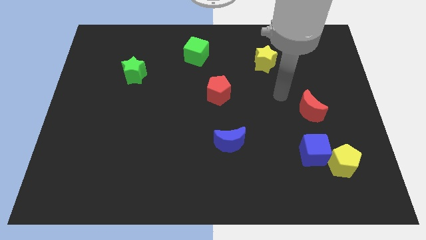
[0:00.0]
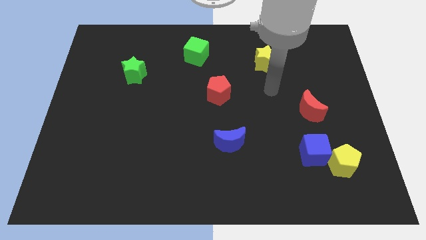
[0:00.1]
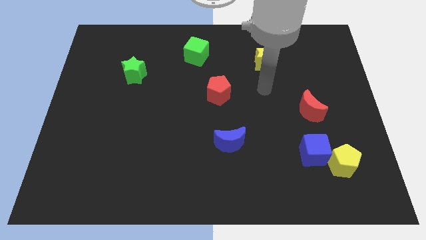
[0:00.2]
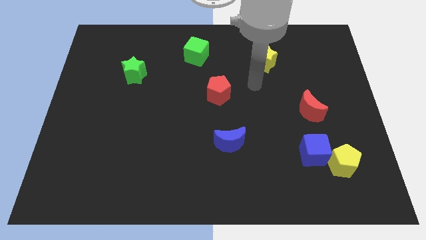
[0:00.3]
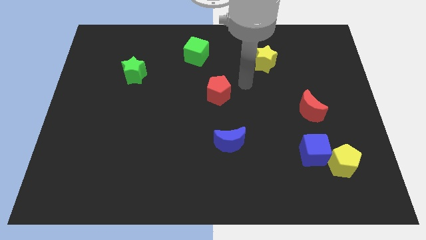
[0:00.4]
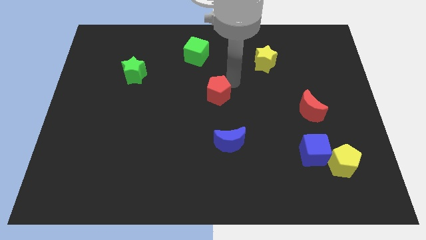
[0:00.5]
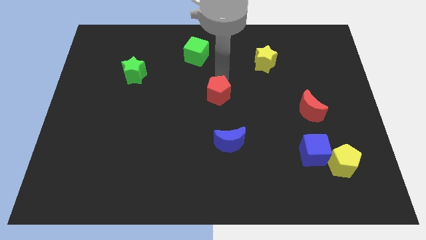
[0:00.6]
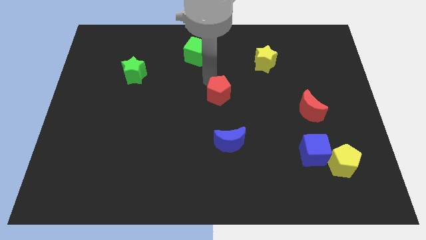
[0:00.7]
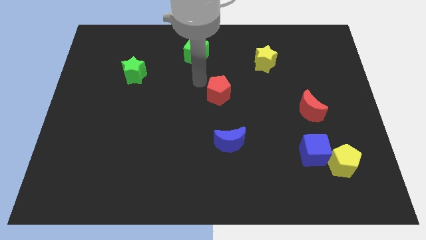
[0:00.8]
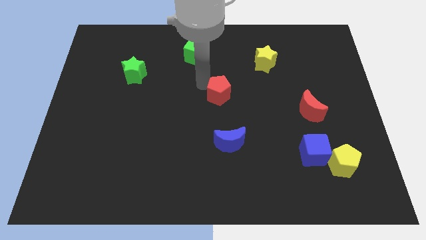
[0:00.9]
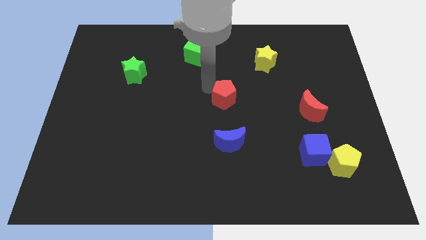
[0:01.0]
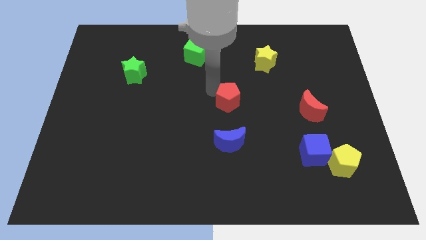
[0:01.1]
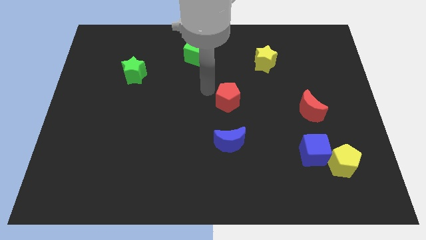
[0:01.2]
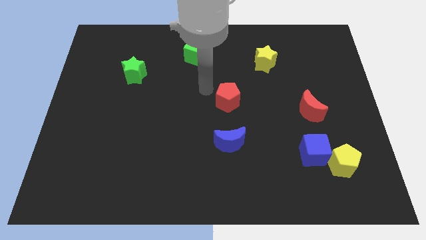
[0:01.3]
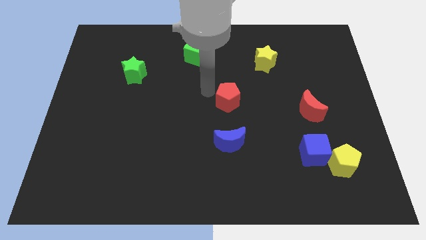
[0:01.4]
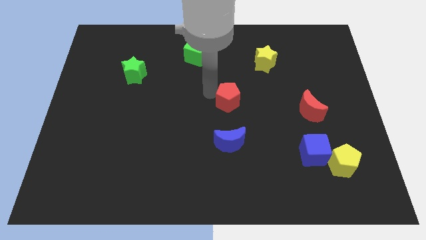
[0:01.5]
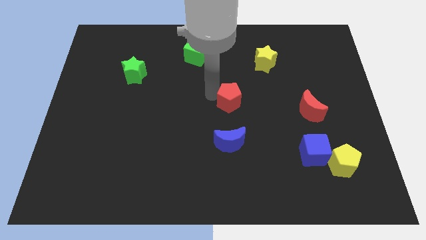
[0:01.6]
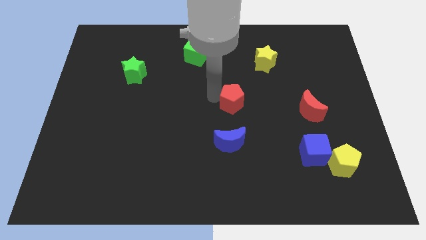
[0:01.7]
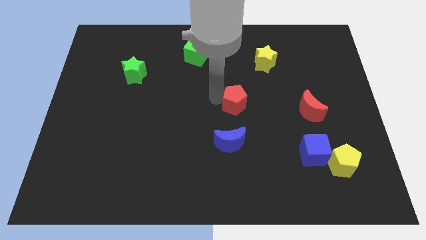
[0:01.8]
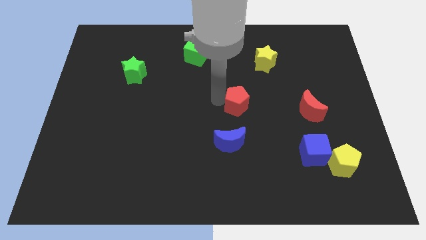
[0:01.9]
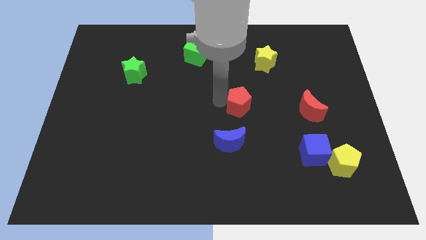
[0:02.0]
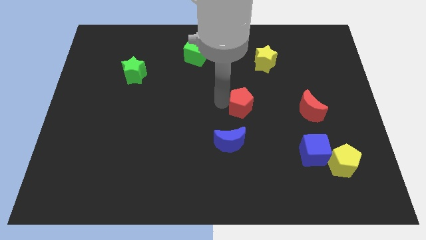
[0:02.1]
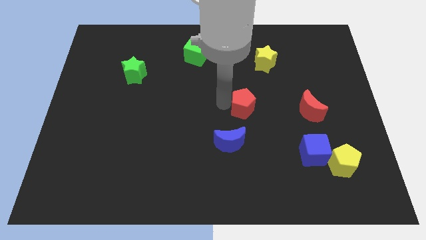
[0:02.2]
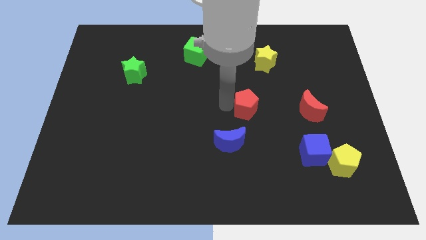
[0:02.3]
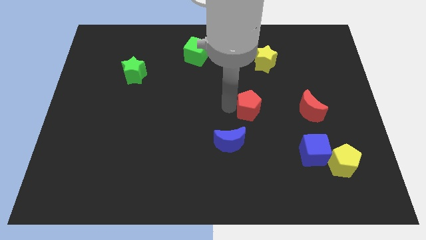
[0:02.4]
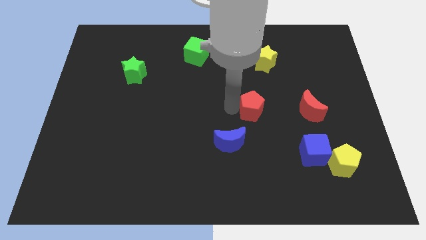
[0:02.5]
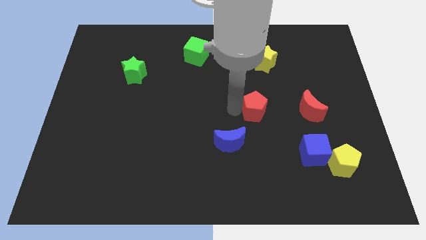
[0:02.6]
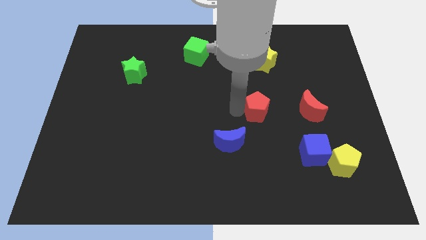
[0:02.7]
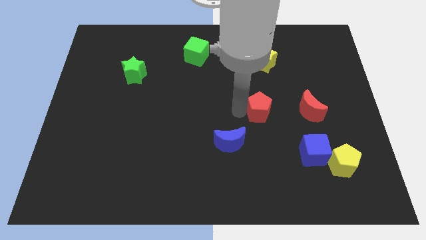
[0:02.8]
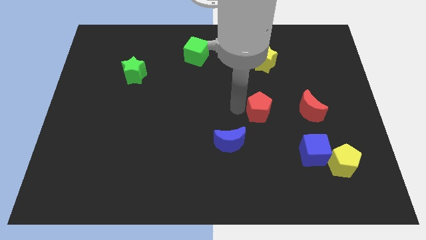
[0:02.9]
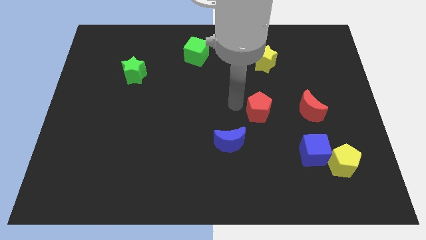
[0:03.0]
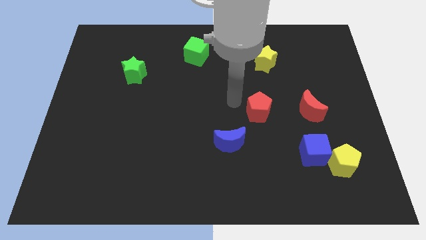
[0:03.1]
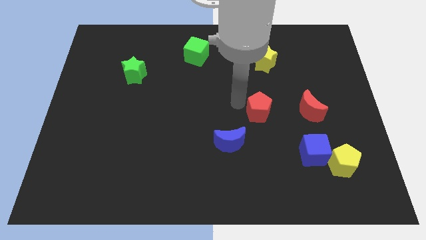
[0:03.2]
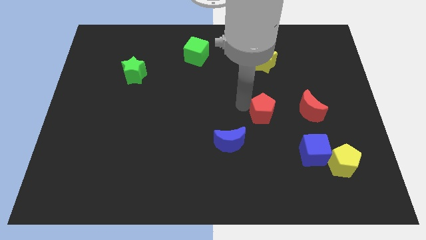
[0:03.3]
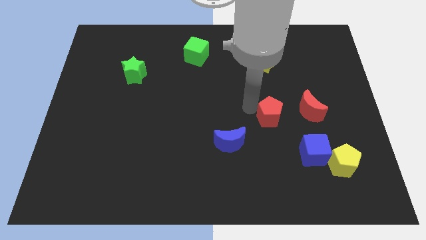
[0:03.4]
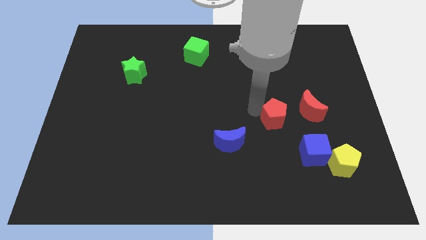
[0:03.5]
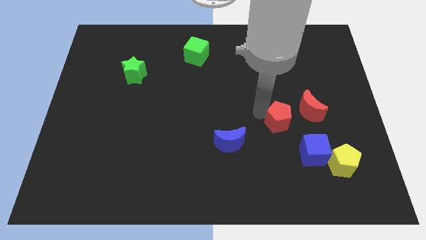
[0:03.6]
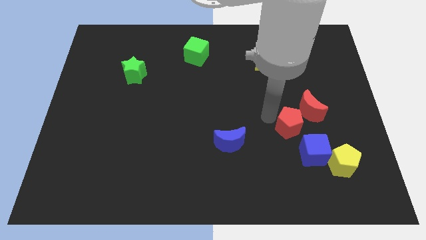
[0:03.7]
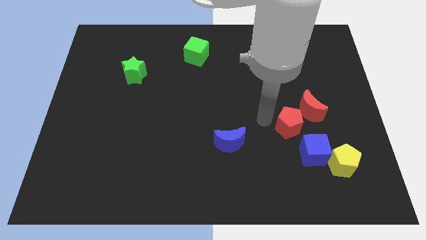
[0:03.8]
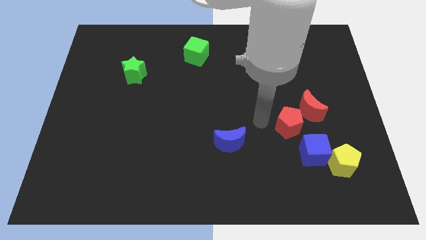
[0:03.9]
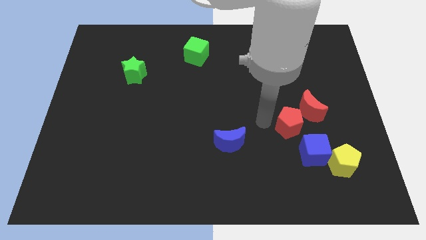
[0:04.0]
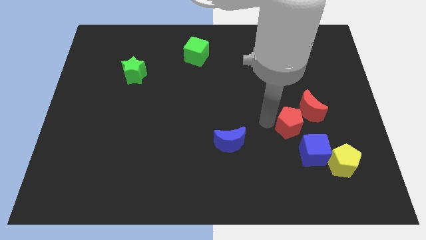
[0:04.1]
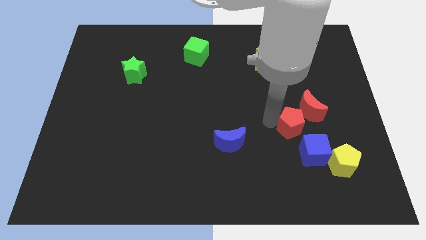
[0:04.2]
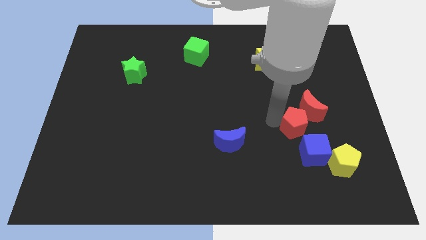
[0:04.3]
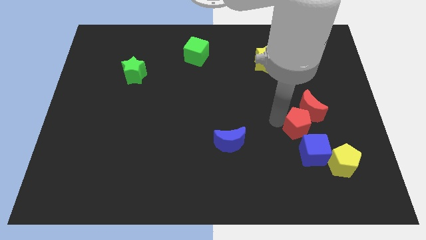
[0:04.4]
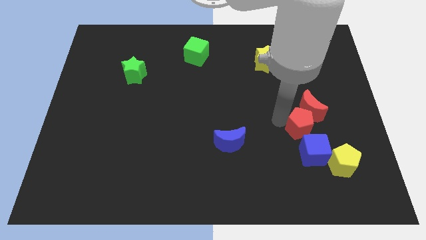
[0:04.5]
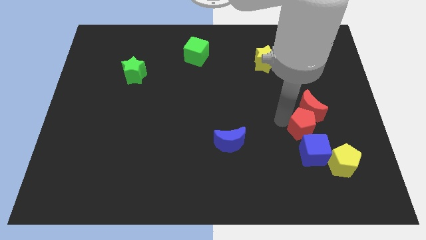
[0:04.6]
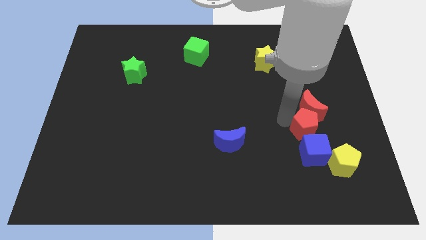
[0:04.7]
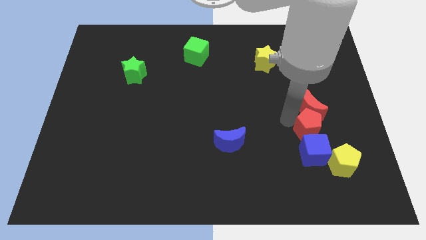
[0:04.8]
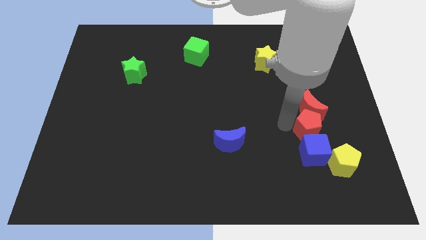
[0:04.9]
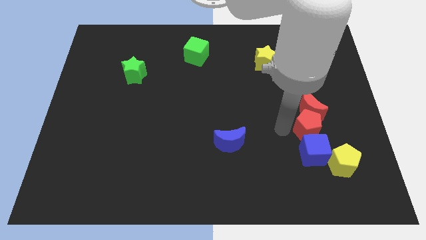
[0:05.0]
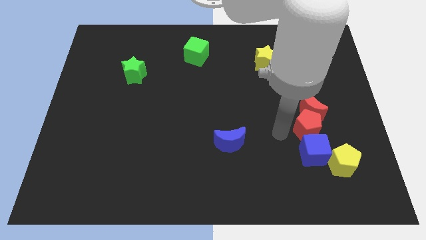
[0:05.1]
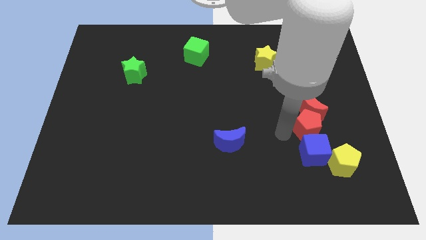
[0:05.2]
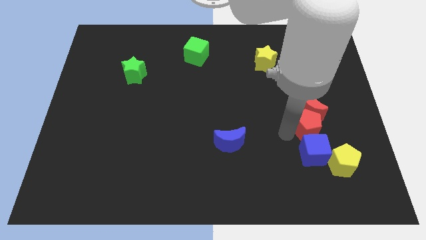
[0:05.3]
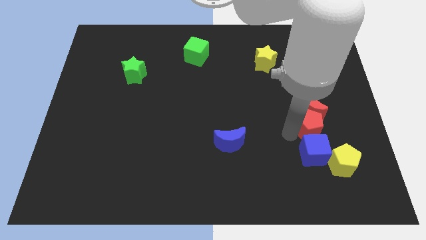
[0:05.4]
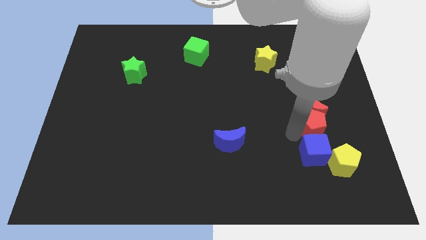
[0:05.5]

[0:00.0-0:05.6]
slide the red pentagon to the top of the yellow pentagon

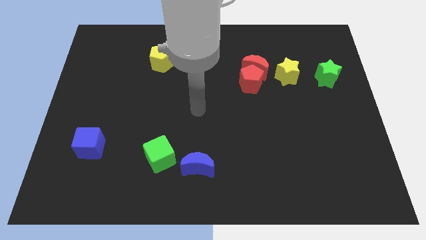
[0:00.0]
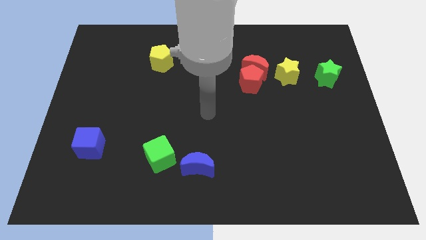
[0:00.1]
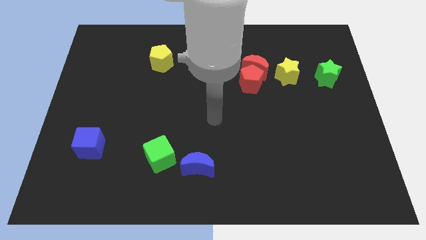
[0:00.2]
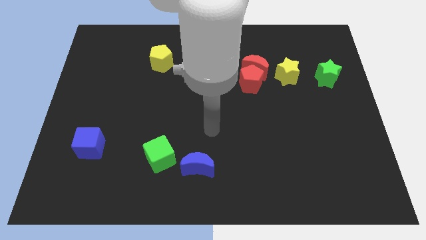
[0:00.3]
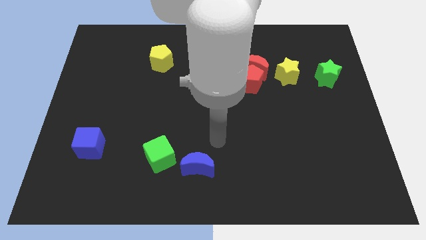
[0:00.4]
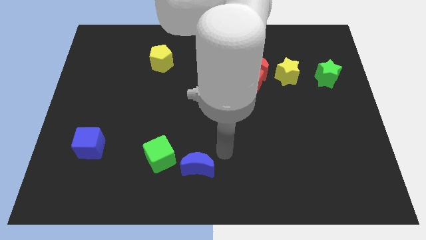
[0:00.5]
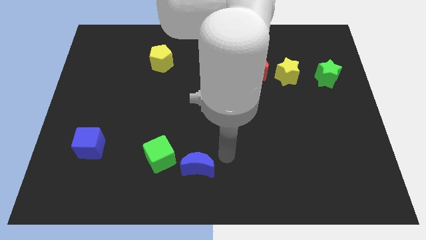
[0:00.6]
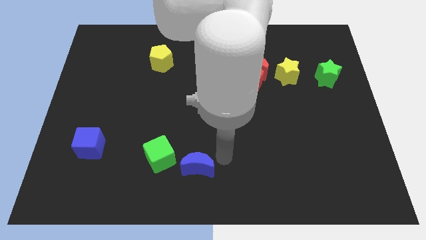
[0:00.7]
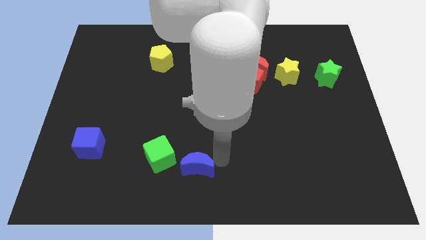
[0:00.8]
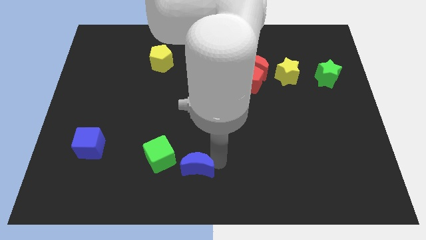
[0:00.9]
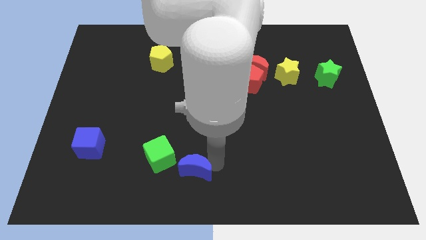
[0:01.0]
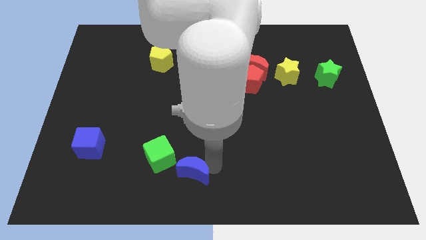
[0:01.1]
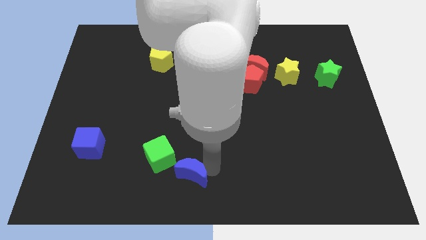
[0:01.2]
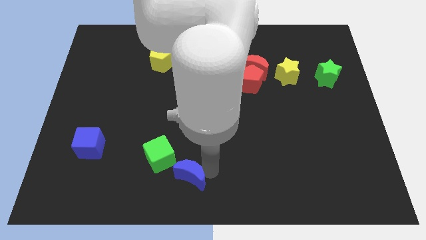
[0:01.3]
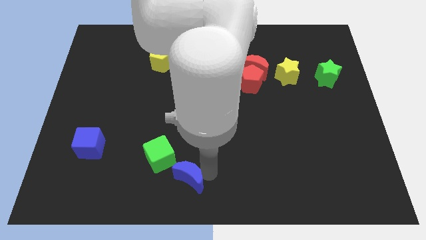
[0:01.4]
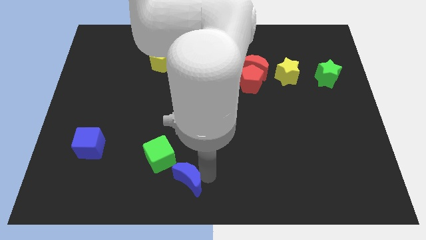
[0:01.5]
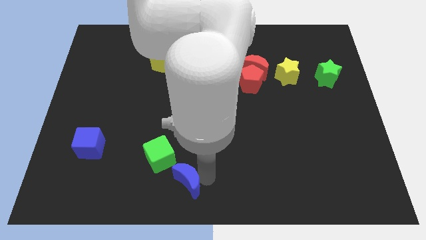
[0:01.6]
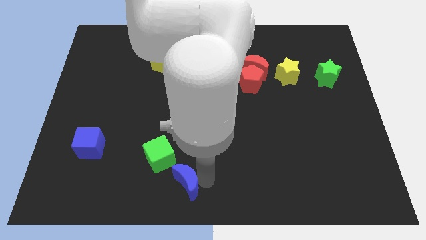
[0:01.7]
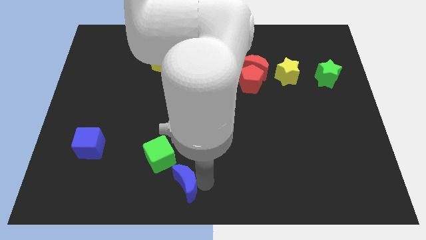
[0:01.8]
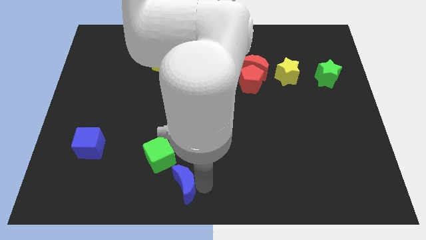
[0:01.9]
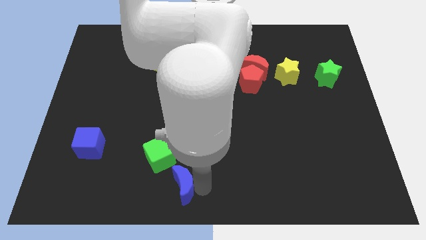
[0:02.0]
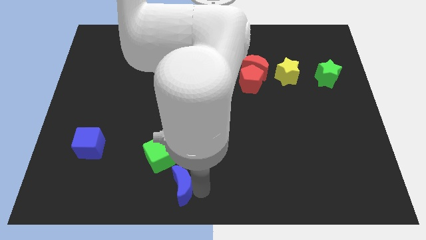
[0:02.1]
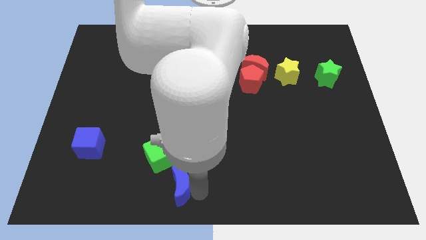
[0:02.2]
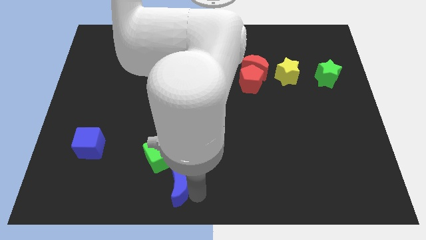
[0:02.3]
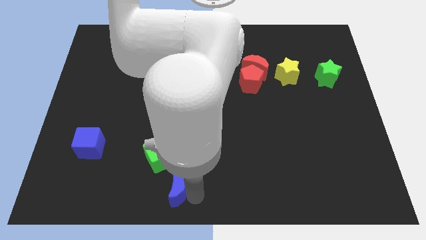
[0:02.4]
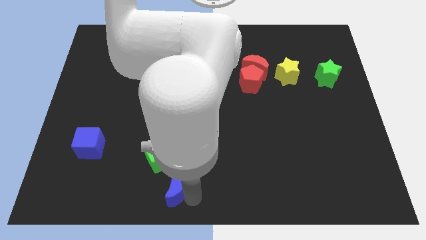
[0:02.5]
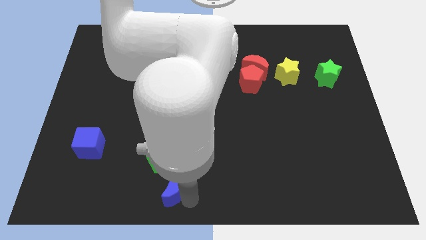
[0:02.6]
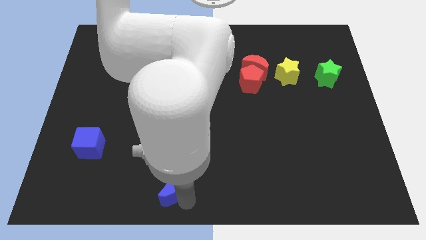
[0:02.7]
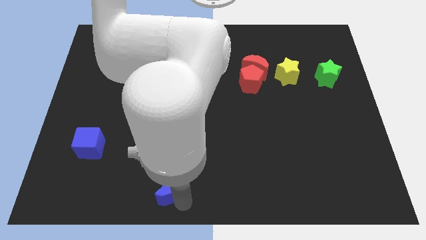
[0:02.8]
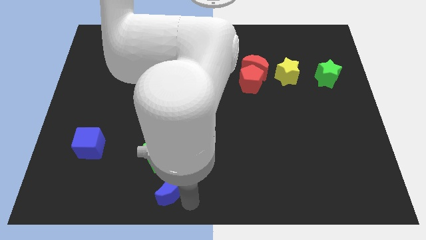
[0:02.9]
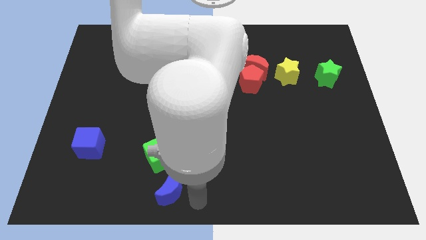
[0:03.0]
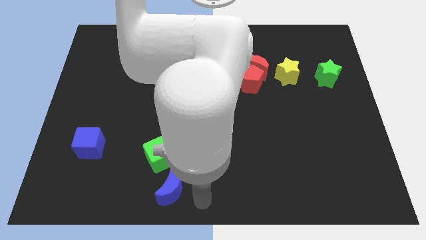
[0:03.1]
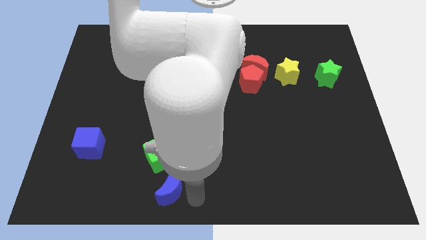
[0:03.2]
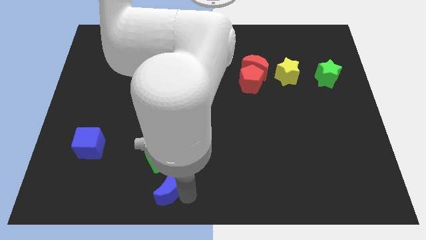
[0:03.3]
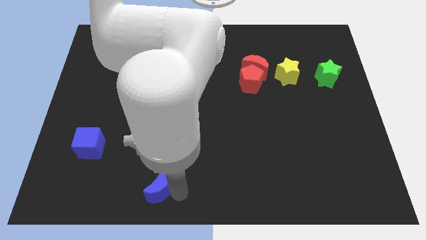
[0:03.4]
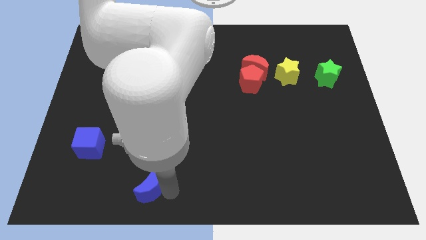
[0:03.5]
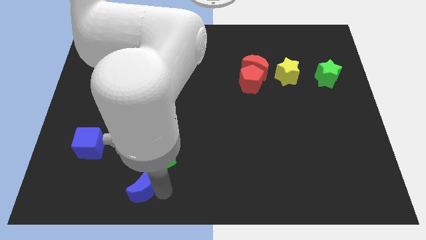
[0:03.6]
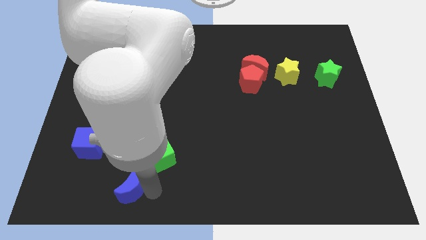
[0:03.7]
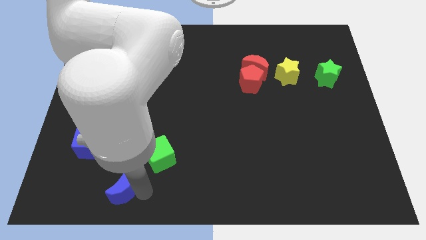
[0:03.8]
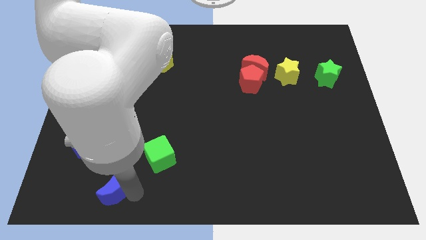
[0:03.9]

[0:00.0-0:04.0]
put the blue moon diagonally down and to the right of the blue cube
